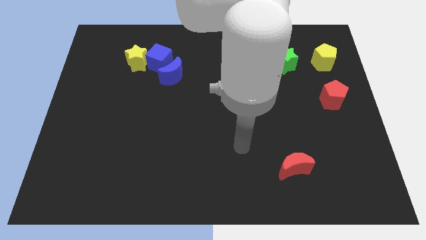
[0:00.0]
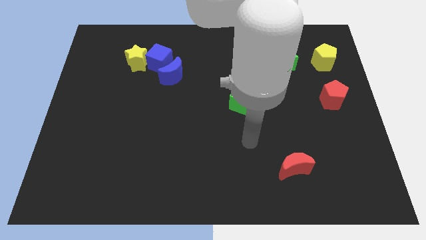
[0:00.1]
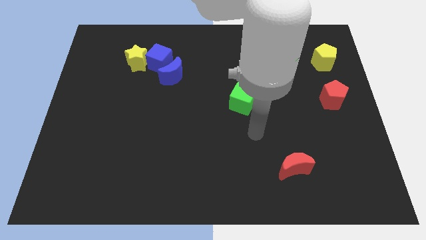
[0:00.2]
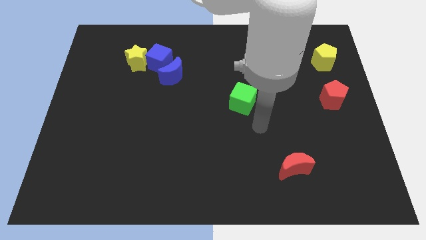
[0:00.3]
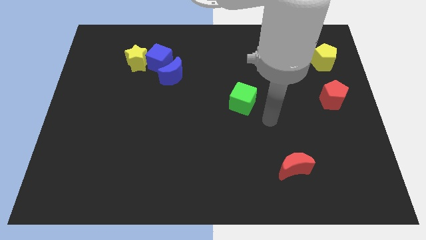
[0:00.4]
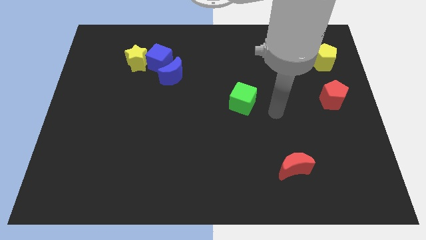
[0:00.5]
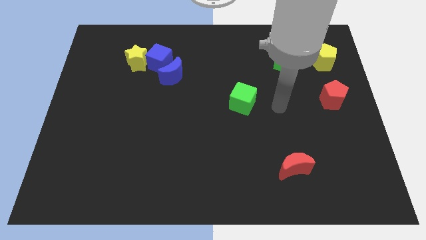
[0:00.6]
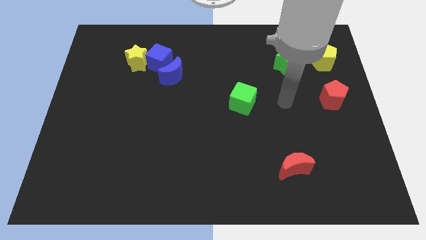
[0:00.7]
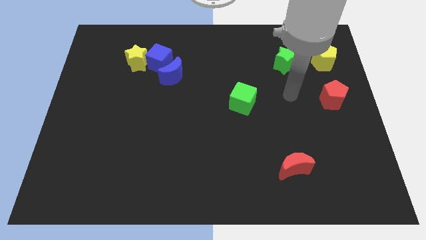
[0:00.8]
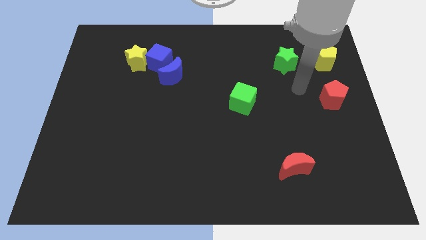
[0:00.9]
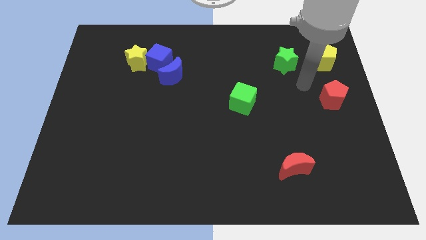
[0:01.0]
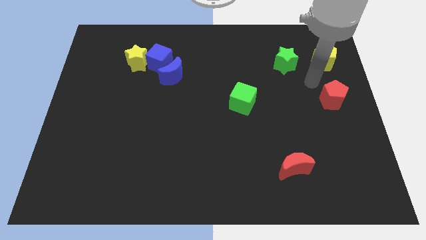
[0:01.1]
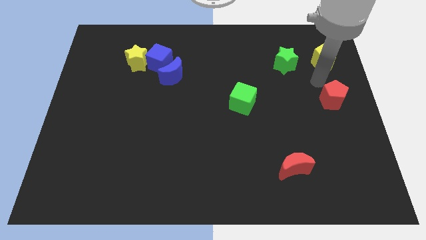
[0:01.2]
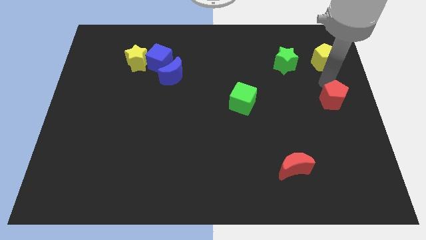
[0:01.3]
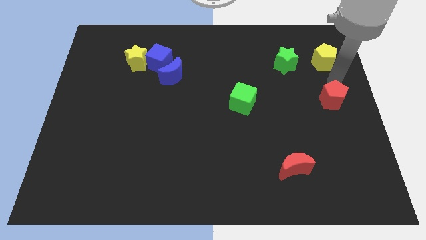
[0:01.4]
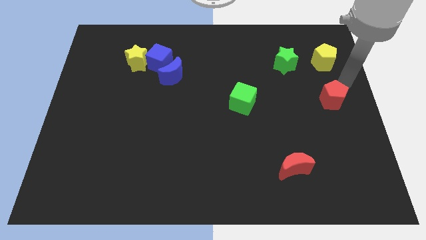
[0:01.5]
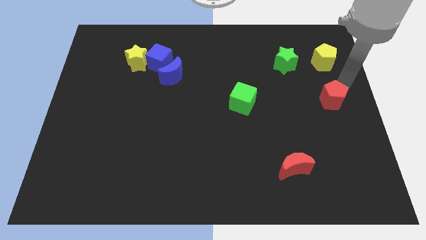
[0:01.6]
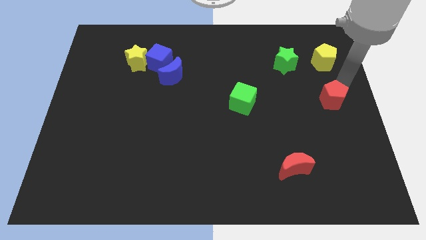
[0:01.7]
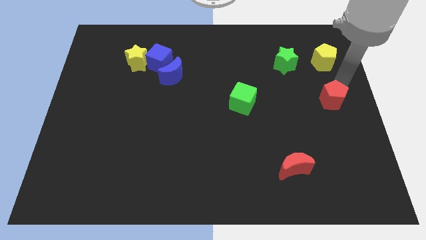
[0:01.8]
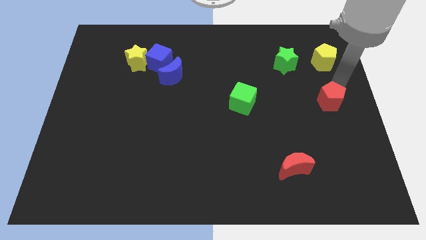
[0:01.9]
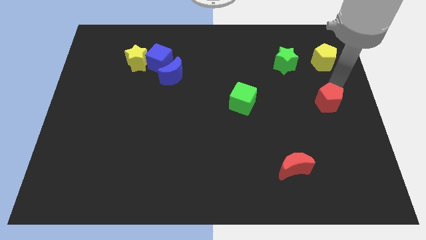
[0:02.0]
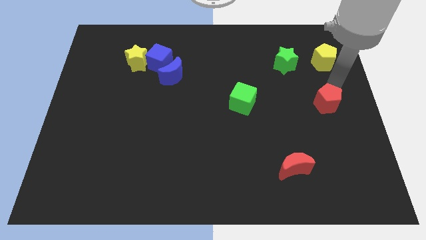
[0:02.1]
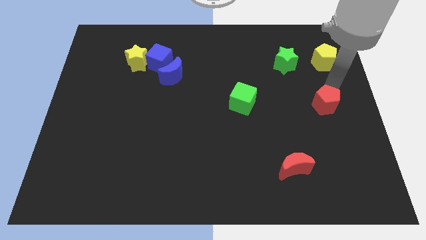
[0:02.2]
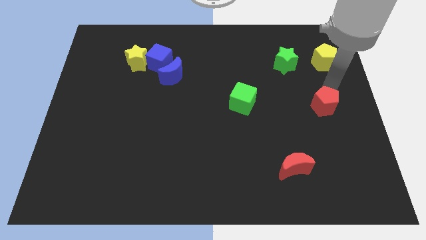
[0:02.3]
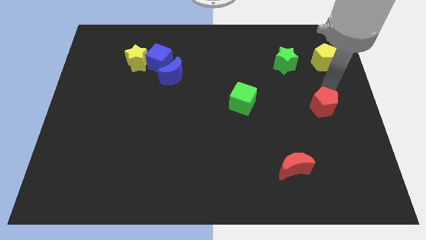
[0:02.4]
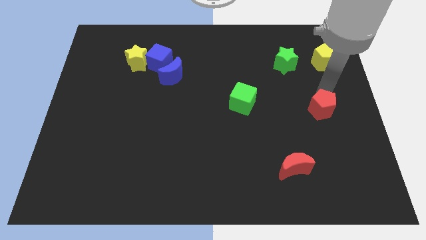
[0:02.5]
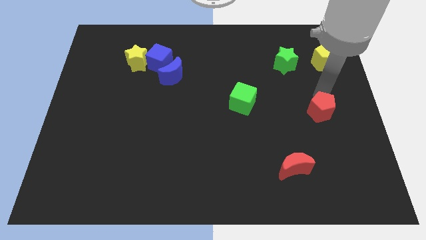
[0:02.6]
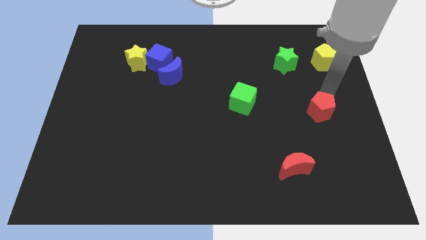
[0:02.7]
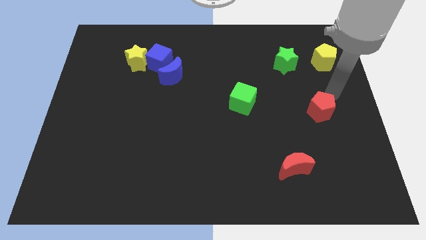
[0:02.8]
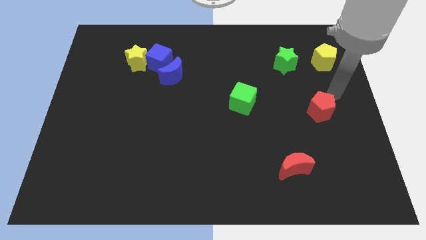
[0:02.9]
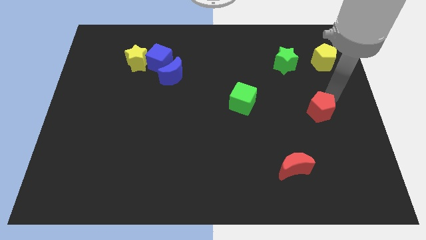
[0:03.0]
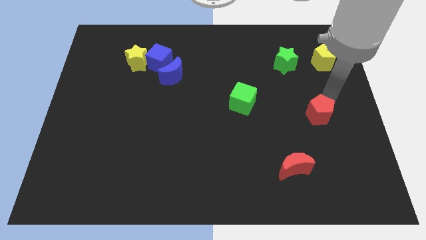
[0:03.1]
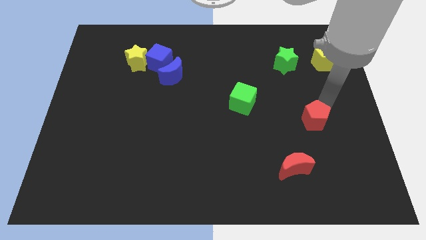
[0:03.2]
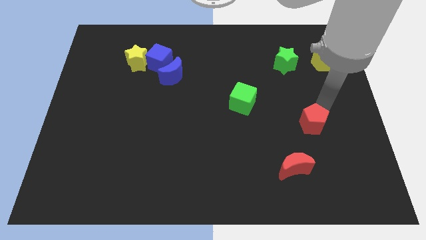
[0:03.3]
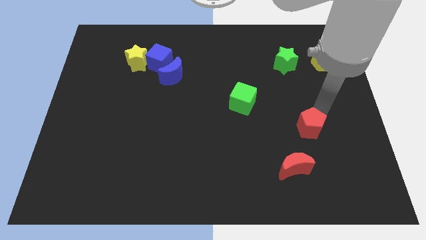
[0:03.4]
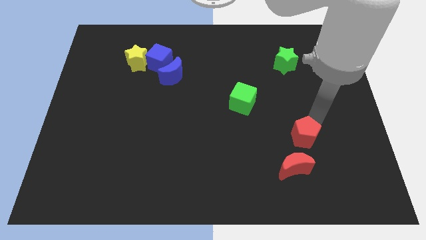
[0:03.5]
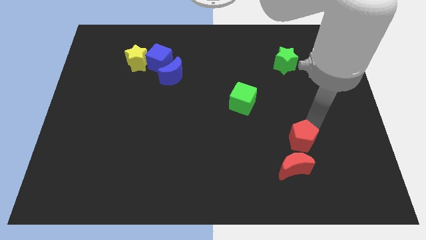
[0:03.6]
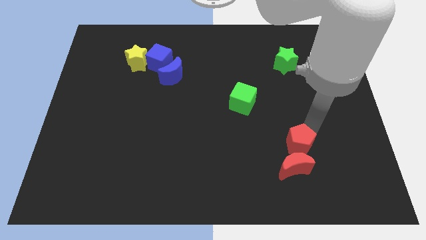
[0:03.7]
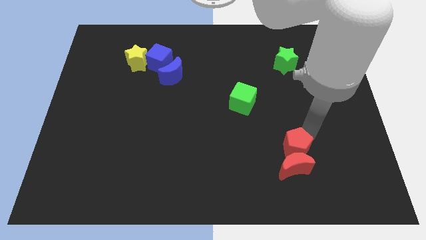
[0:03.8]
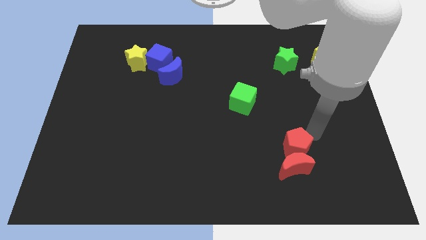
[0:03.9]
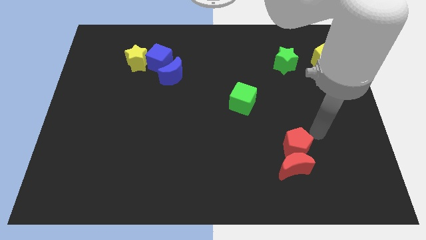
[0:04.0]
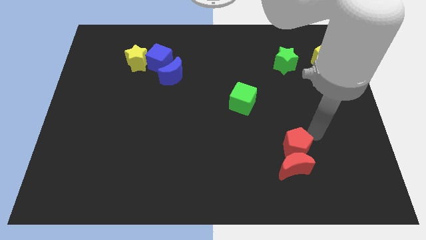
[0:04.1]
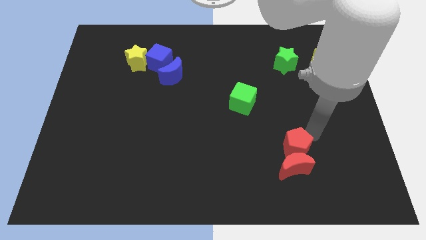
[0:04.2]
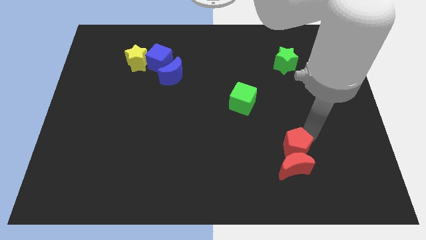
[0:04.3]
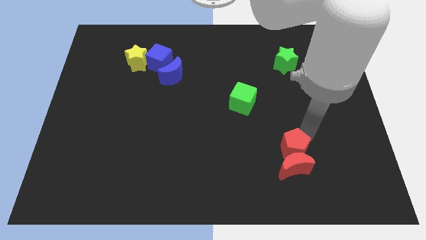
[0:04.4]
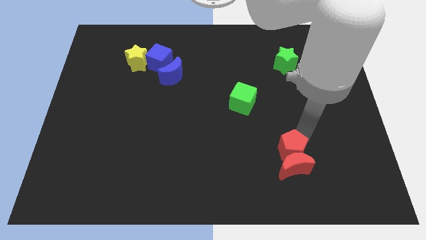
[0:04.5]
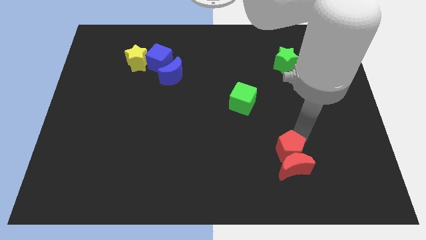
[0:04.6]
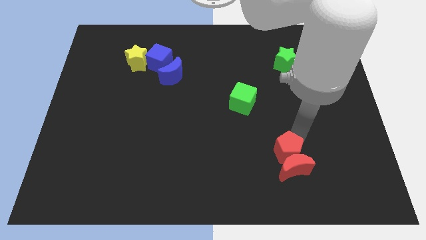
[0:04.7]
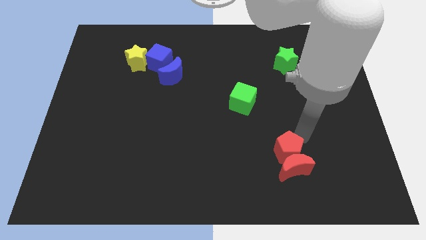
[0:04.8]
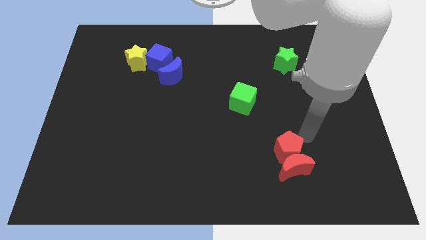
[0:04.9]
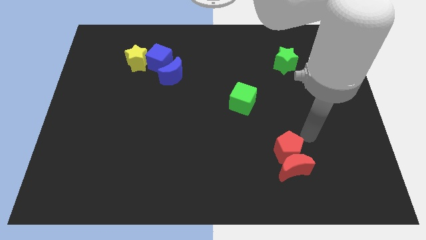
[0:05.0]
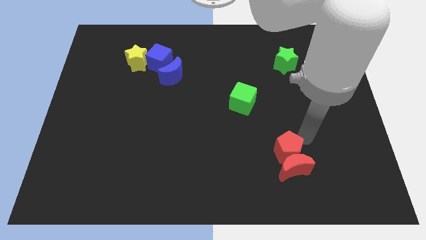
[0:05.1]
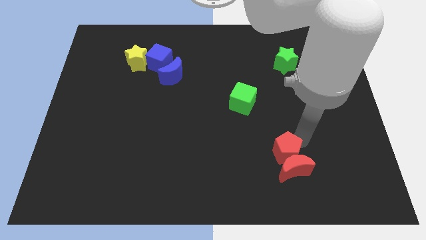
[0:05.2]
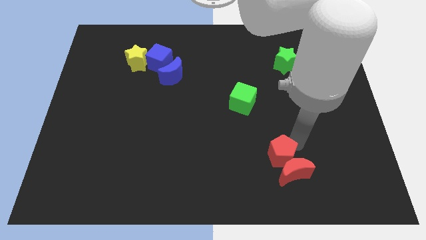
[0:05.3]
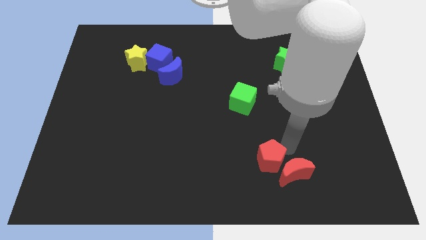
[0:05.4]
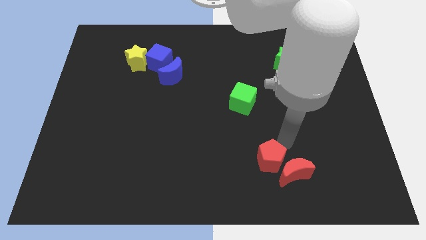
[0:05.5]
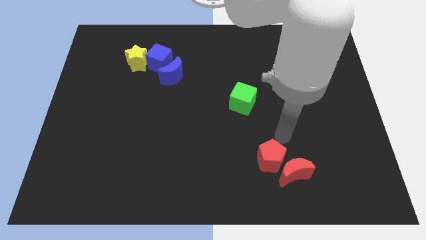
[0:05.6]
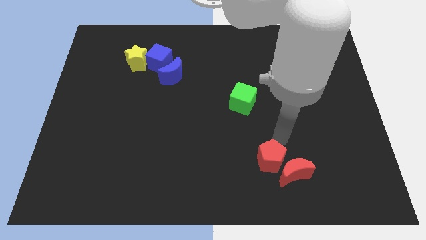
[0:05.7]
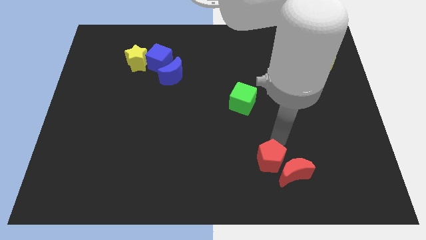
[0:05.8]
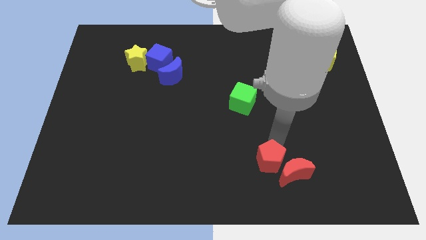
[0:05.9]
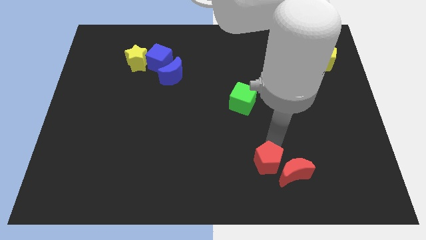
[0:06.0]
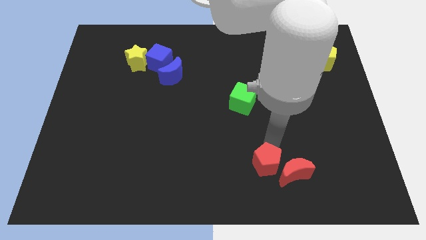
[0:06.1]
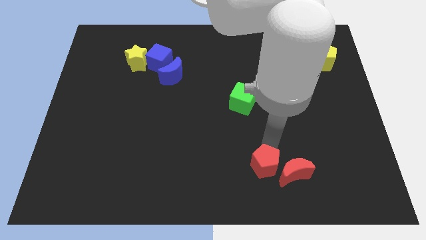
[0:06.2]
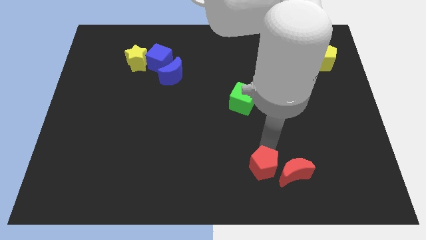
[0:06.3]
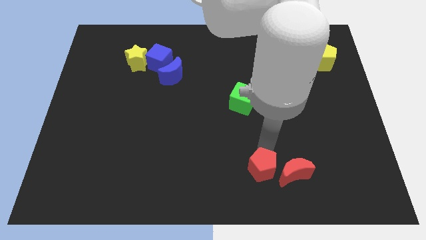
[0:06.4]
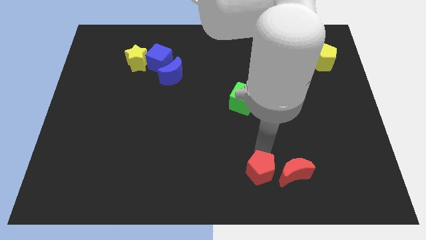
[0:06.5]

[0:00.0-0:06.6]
slide the red pentagon to the bottom side

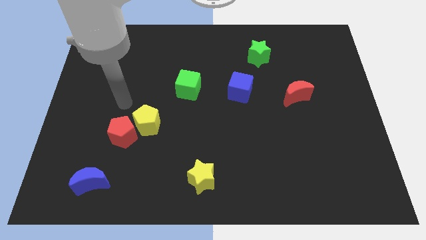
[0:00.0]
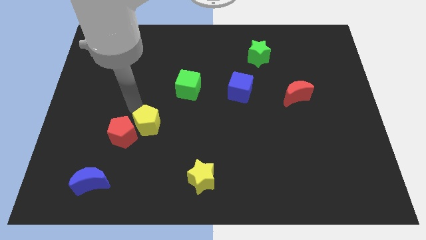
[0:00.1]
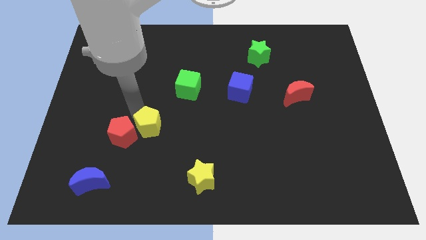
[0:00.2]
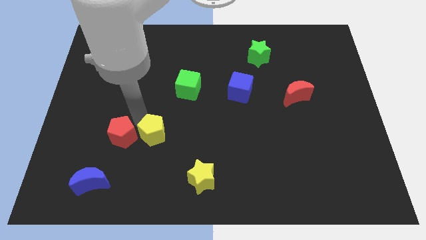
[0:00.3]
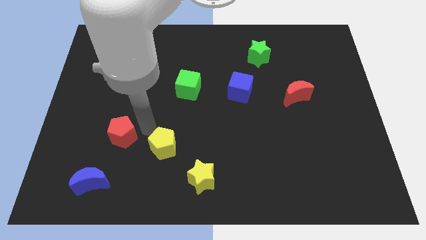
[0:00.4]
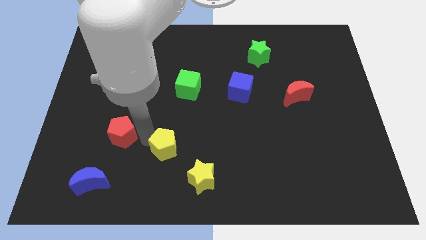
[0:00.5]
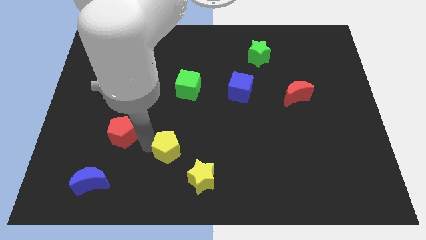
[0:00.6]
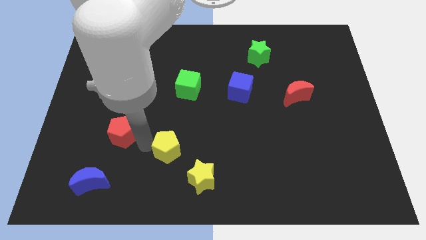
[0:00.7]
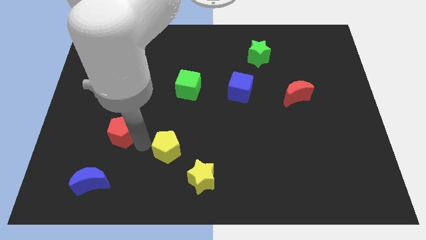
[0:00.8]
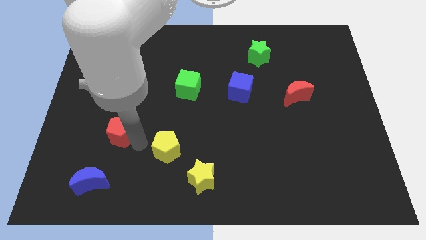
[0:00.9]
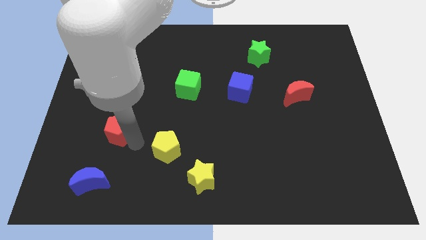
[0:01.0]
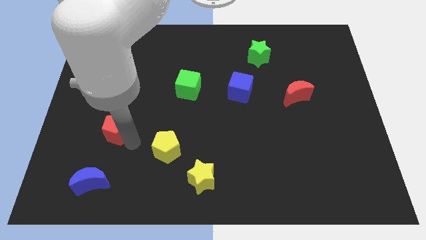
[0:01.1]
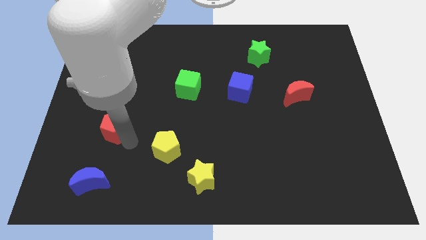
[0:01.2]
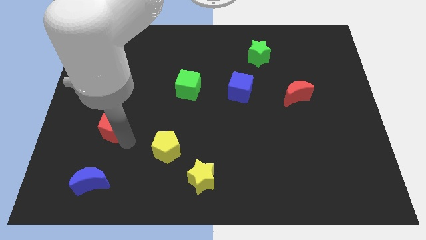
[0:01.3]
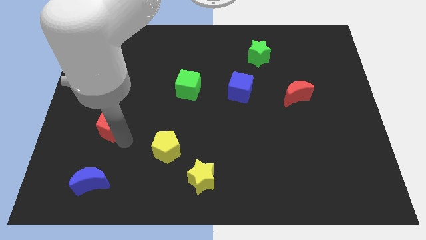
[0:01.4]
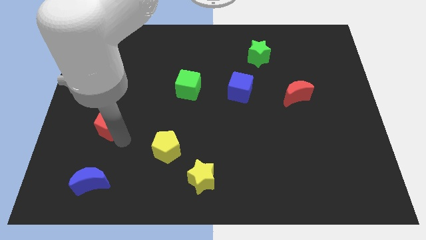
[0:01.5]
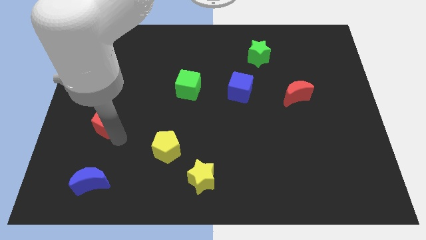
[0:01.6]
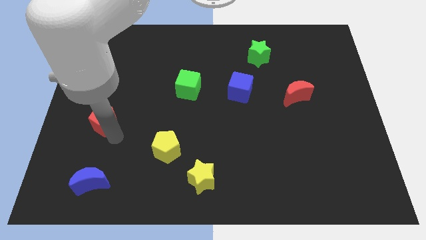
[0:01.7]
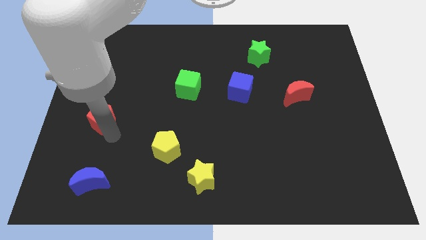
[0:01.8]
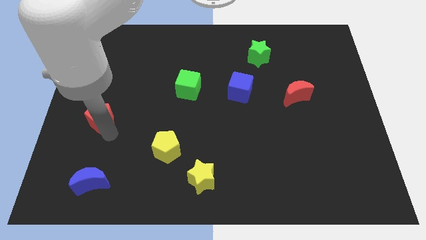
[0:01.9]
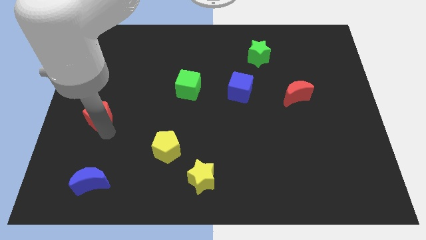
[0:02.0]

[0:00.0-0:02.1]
push the red pentagon to the center left
